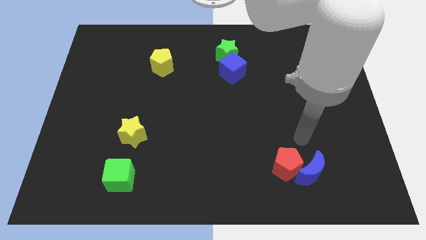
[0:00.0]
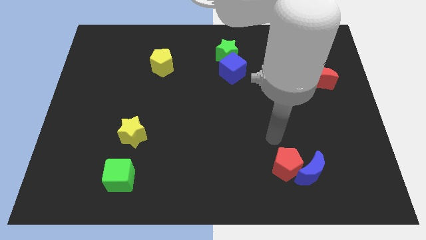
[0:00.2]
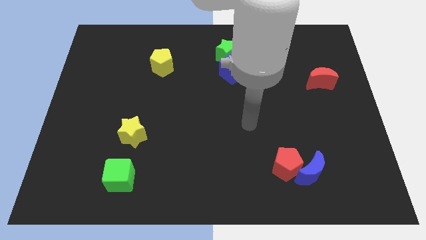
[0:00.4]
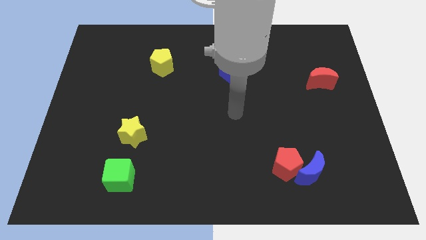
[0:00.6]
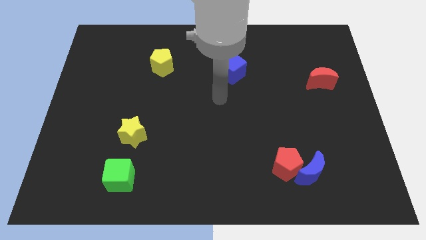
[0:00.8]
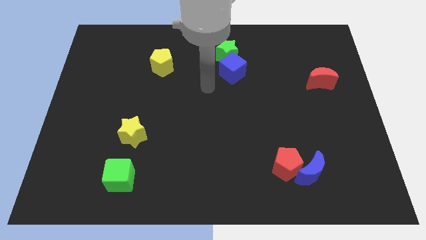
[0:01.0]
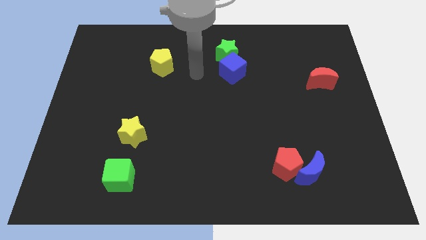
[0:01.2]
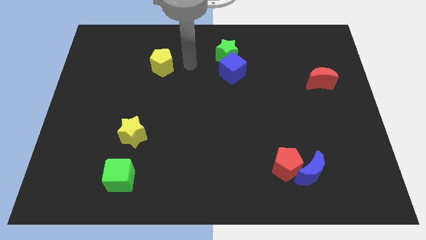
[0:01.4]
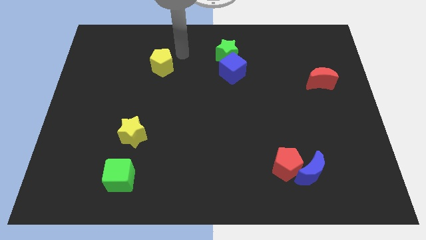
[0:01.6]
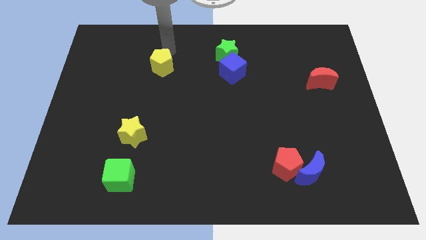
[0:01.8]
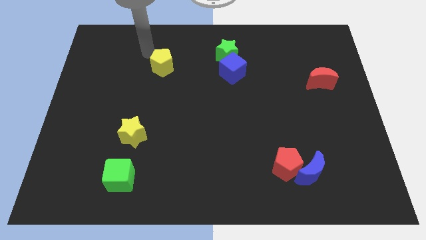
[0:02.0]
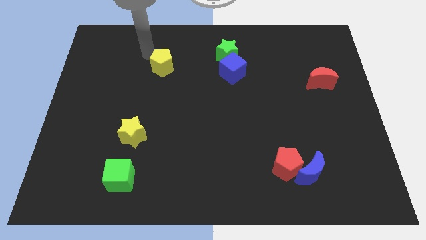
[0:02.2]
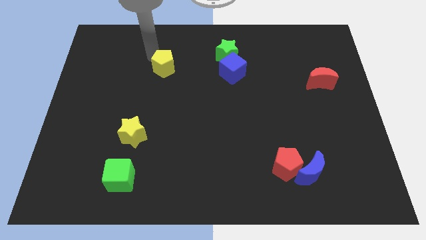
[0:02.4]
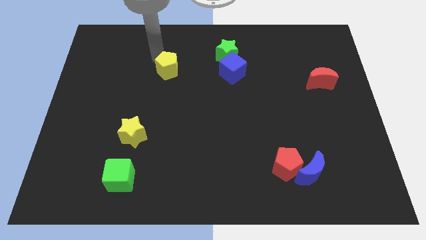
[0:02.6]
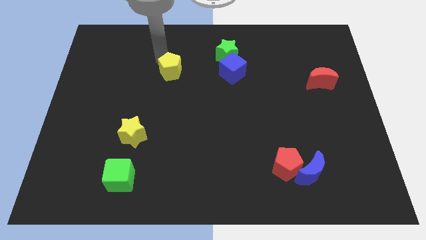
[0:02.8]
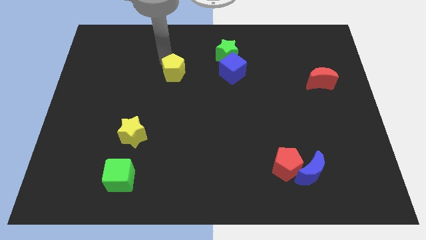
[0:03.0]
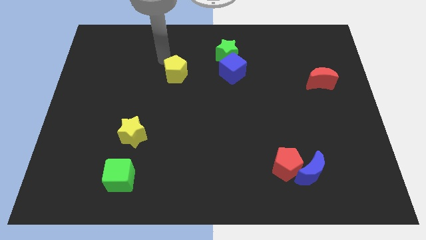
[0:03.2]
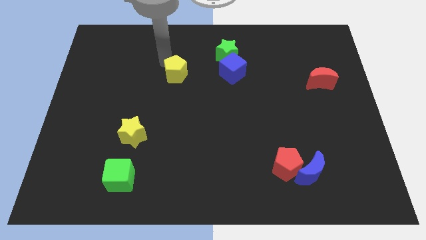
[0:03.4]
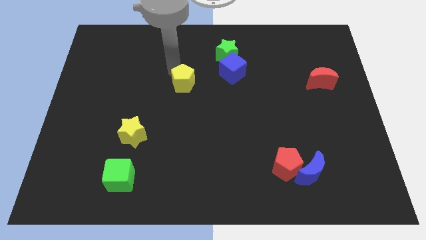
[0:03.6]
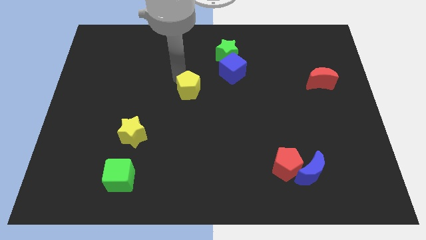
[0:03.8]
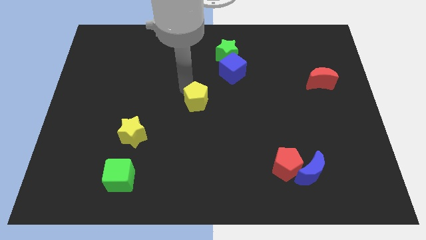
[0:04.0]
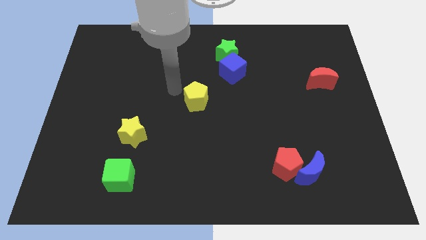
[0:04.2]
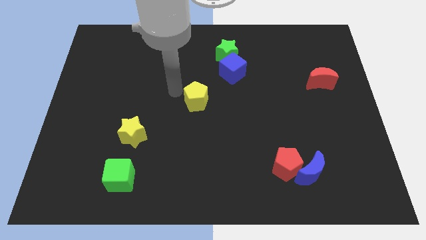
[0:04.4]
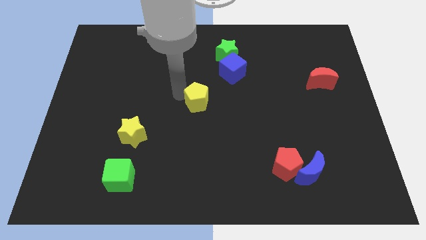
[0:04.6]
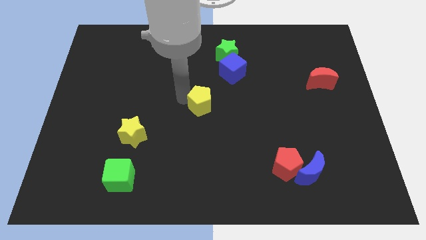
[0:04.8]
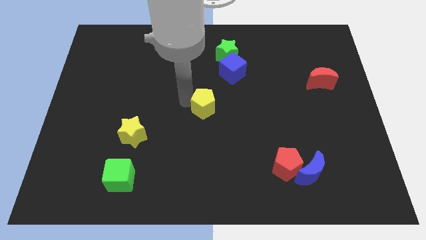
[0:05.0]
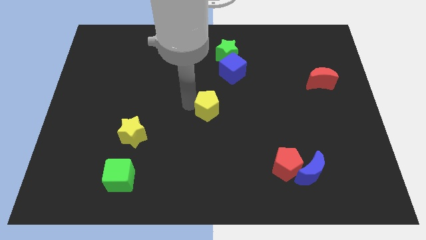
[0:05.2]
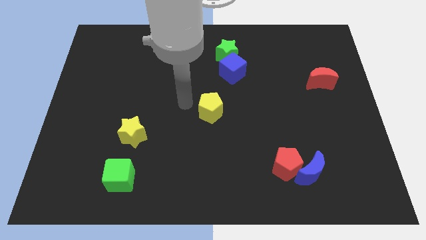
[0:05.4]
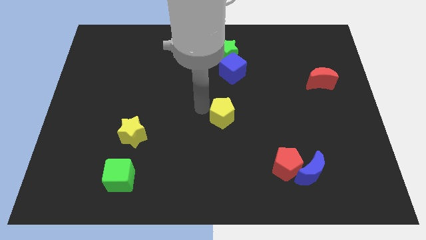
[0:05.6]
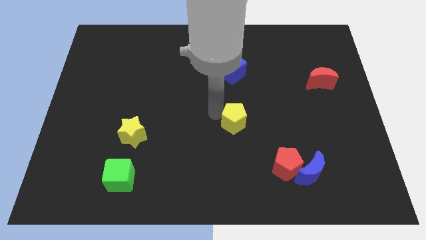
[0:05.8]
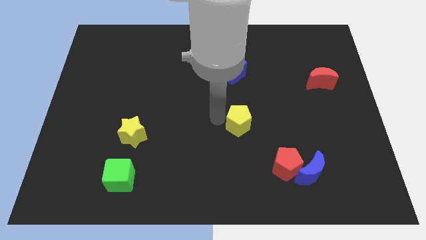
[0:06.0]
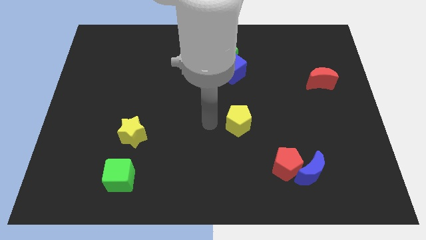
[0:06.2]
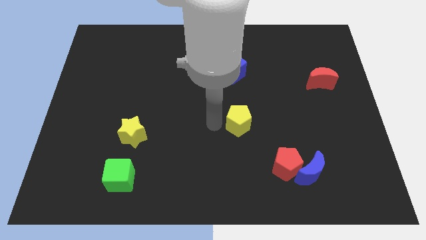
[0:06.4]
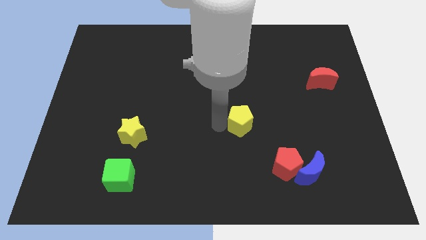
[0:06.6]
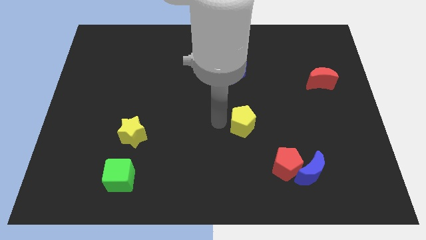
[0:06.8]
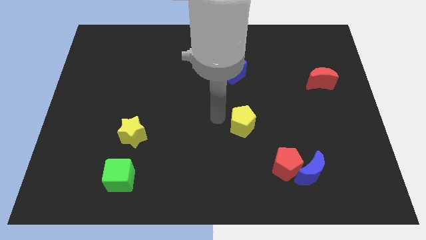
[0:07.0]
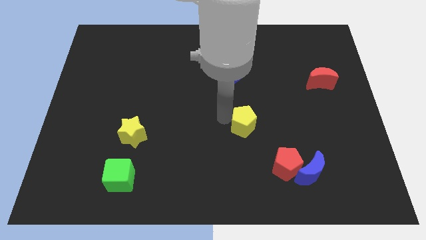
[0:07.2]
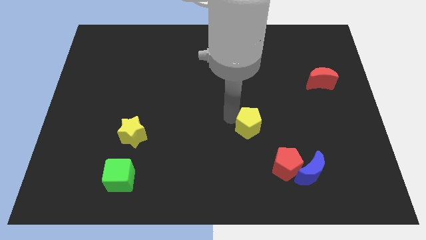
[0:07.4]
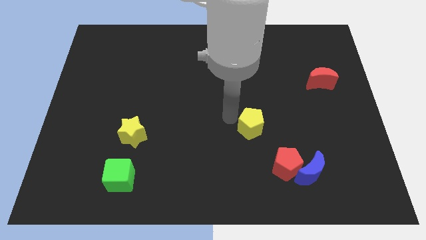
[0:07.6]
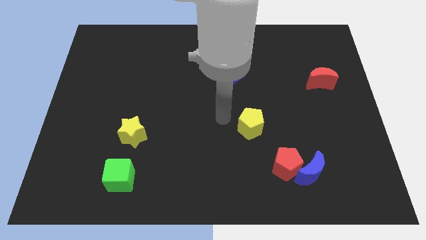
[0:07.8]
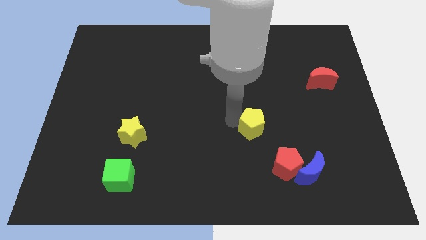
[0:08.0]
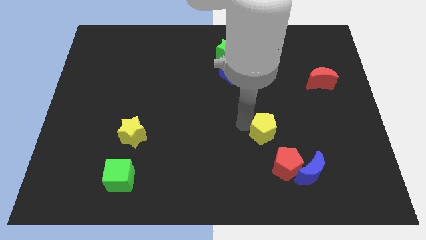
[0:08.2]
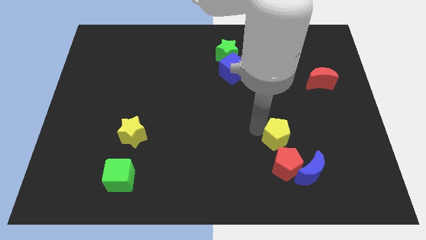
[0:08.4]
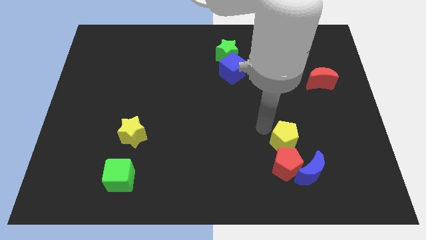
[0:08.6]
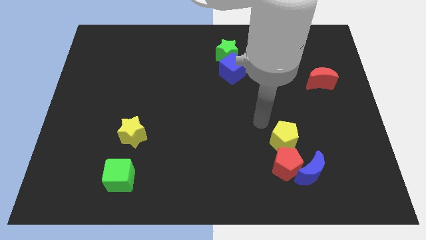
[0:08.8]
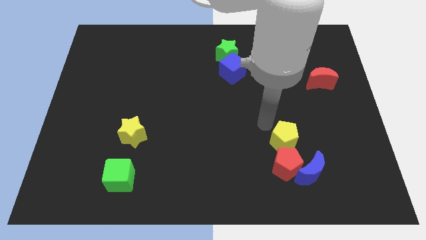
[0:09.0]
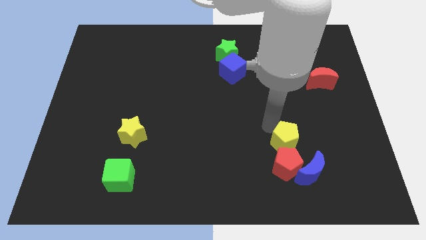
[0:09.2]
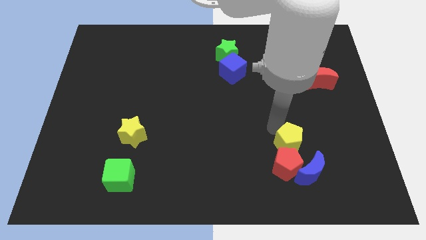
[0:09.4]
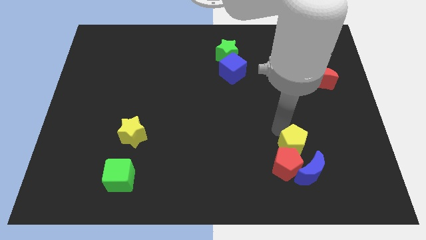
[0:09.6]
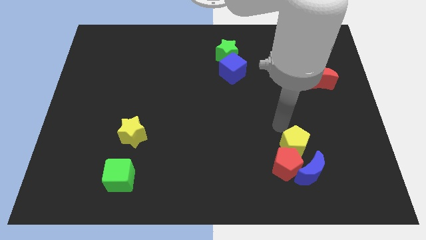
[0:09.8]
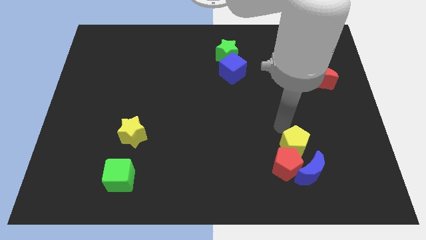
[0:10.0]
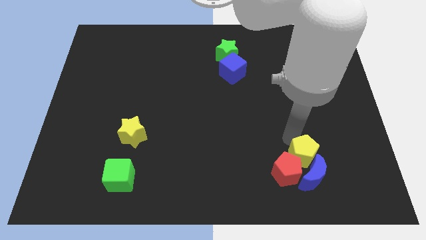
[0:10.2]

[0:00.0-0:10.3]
put the yellow pentagon next to the blue moon

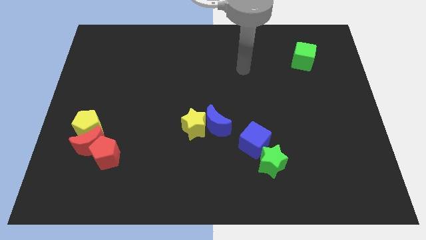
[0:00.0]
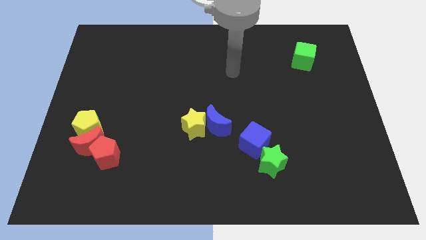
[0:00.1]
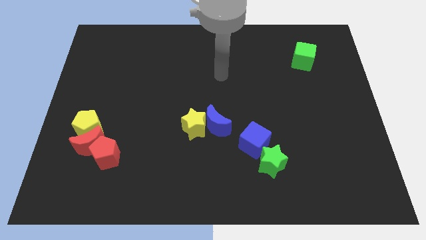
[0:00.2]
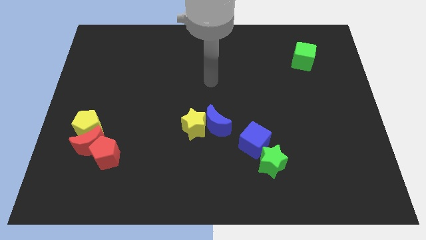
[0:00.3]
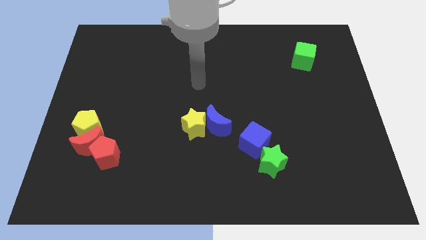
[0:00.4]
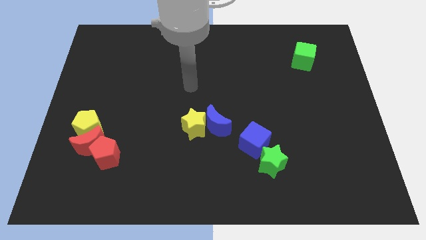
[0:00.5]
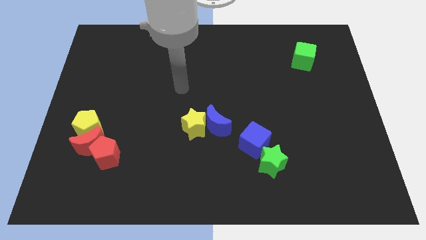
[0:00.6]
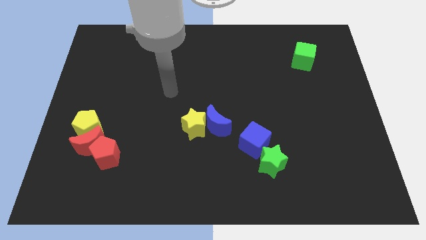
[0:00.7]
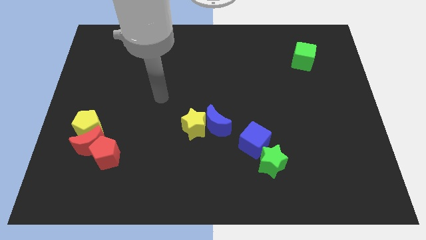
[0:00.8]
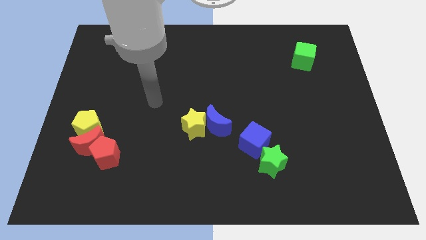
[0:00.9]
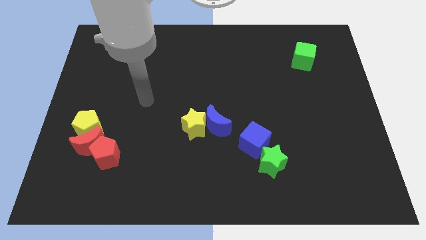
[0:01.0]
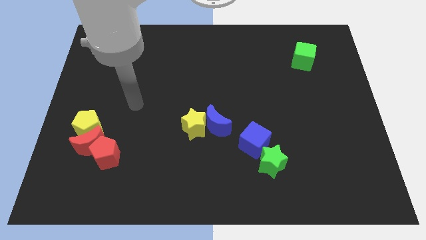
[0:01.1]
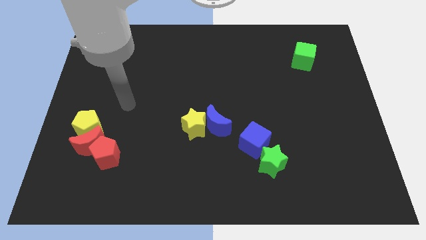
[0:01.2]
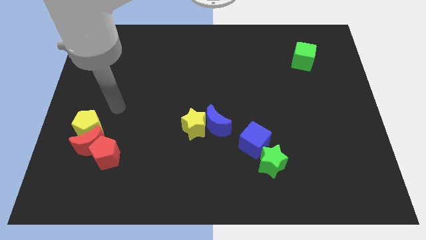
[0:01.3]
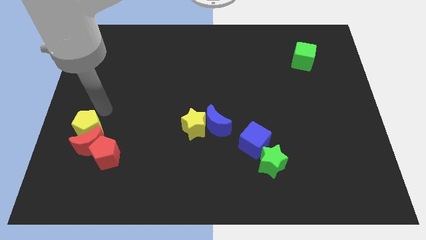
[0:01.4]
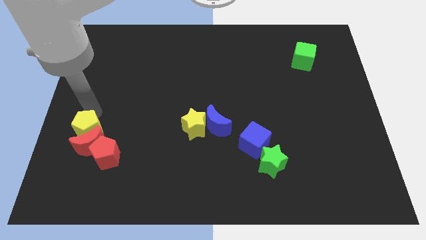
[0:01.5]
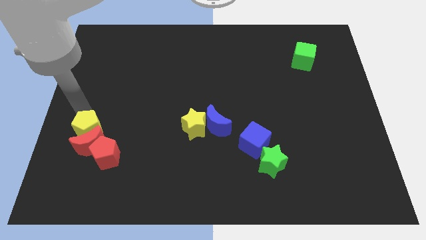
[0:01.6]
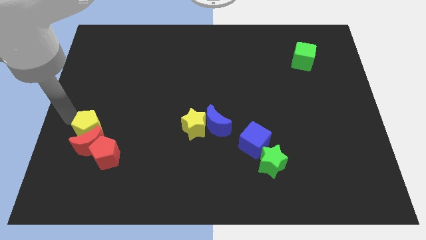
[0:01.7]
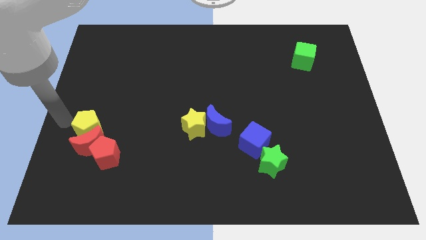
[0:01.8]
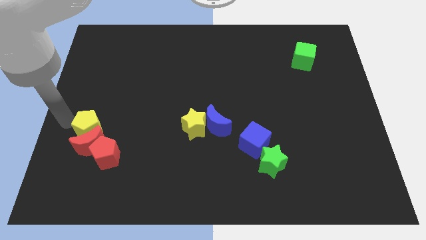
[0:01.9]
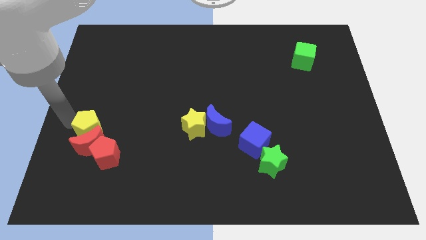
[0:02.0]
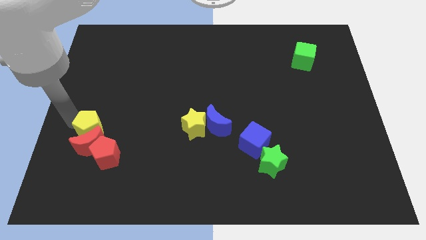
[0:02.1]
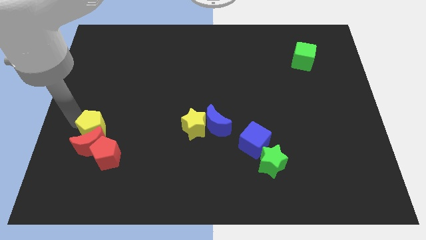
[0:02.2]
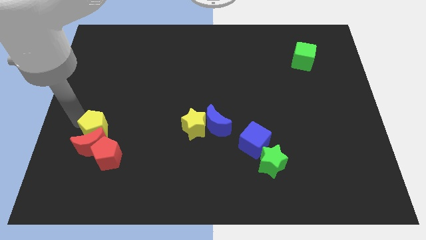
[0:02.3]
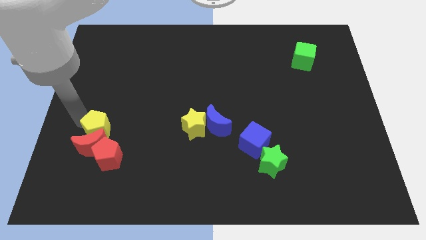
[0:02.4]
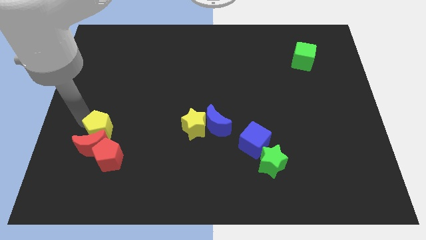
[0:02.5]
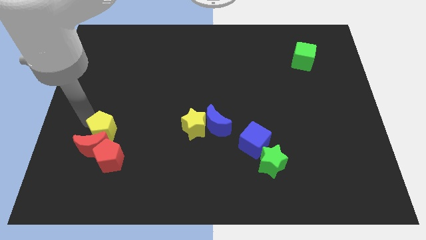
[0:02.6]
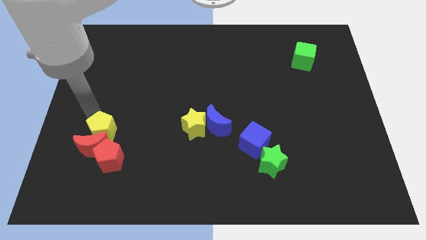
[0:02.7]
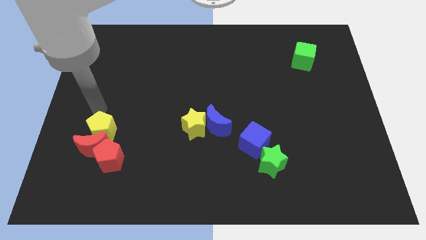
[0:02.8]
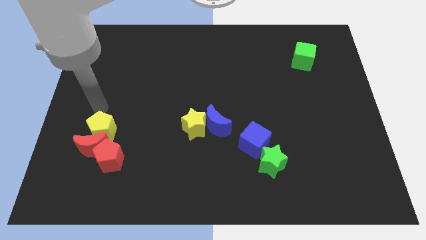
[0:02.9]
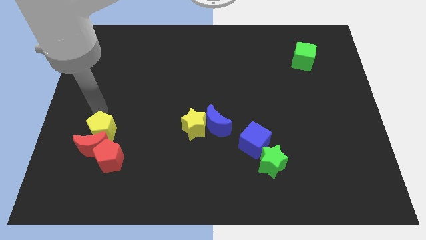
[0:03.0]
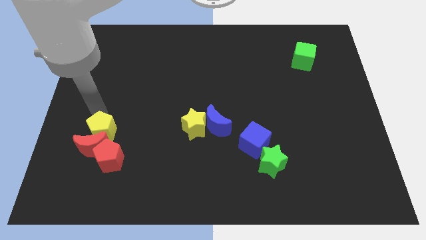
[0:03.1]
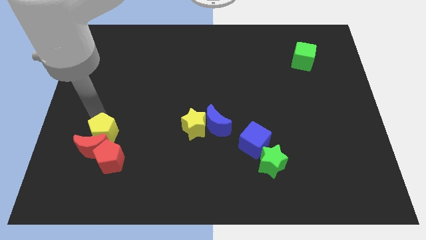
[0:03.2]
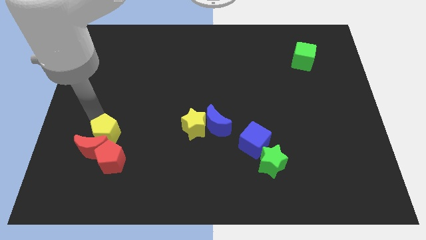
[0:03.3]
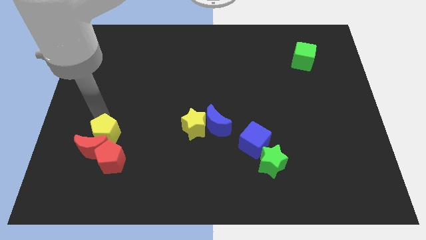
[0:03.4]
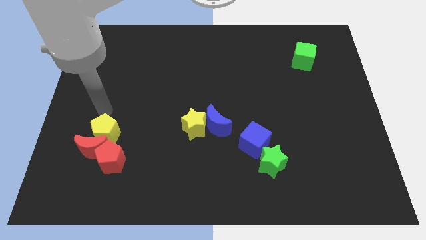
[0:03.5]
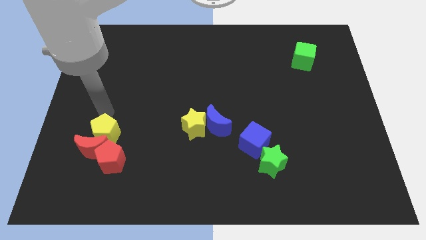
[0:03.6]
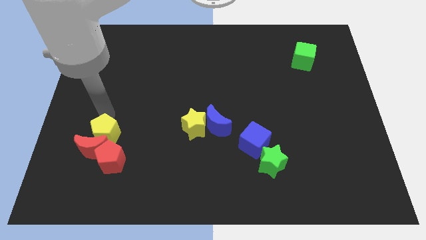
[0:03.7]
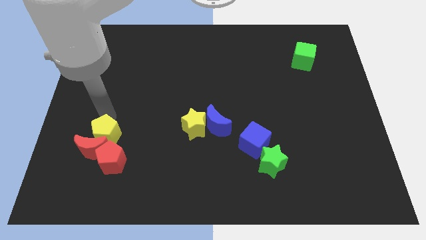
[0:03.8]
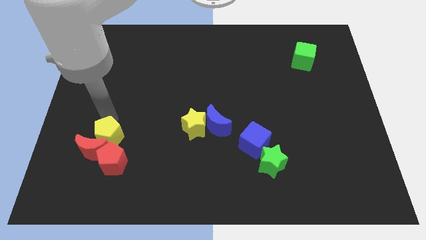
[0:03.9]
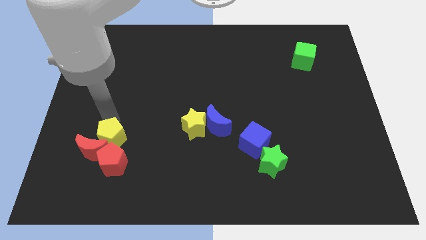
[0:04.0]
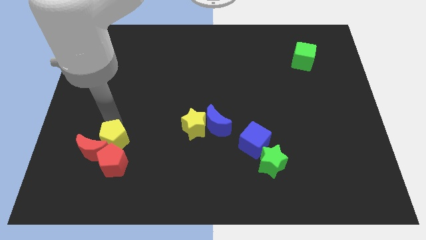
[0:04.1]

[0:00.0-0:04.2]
put the yellow pentagon close to the red pentagon
